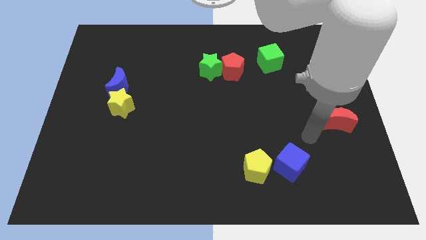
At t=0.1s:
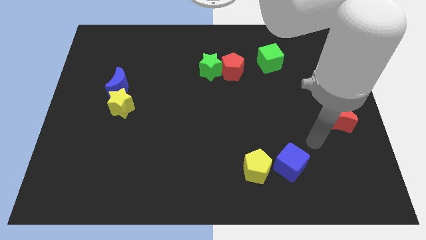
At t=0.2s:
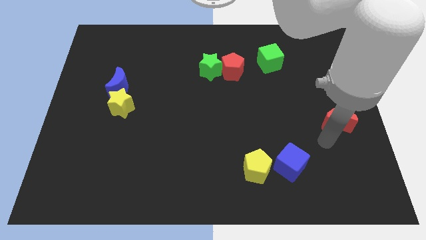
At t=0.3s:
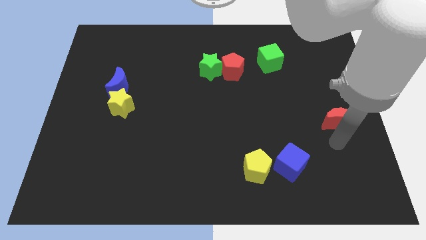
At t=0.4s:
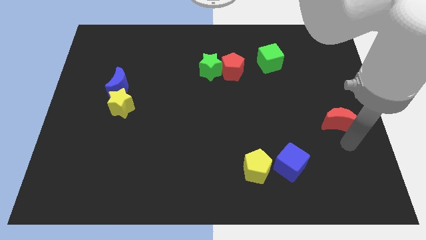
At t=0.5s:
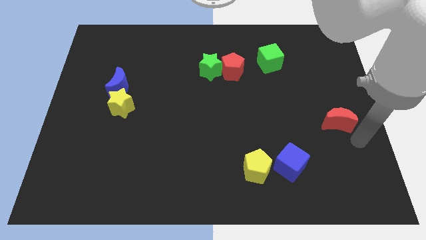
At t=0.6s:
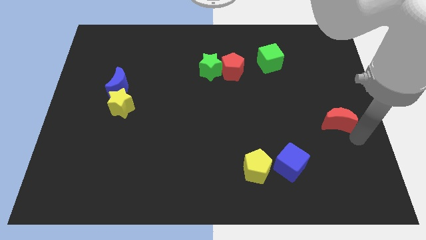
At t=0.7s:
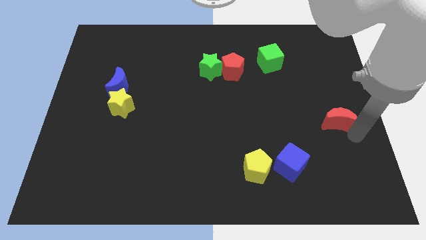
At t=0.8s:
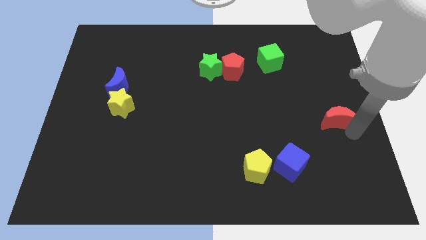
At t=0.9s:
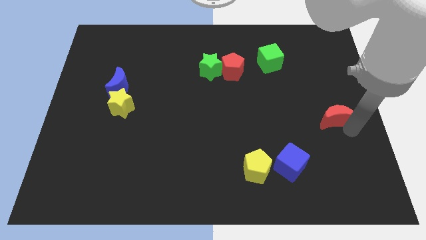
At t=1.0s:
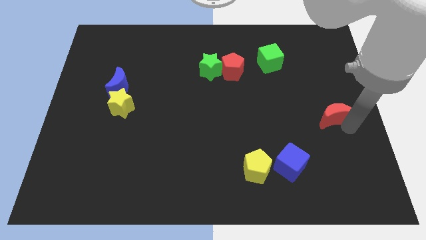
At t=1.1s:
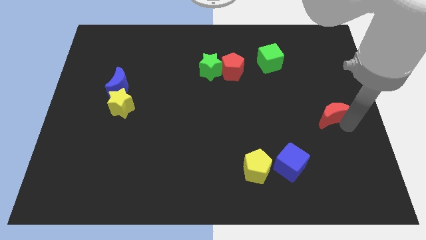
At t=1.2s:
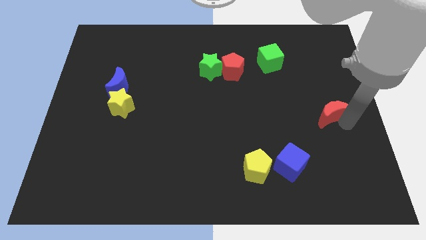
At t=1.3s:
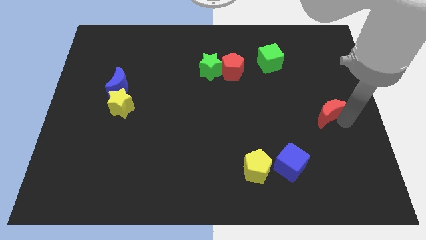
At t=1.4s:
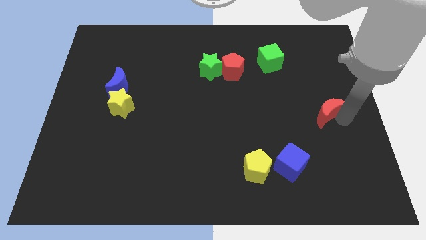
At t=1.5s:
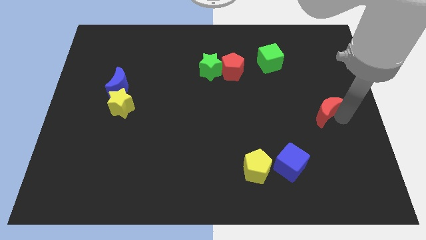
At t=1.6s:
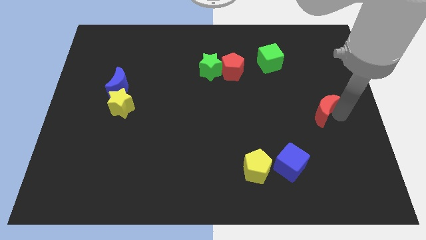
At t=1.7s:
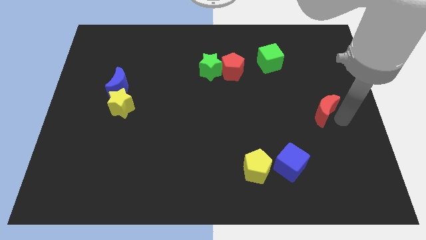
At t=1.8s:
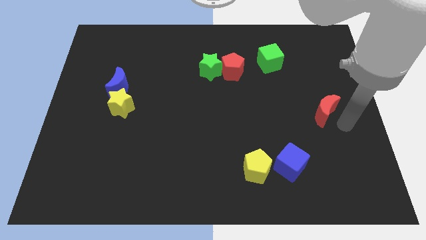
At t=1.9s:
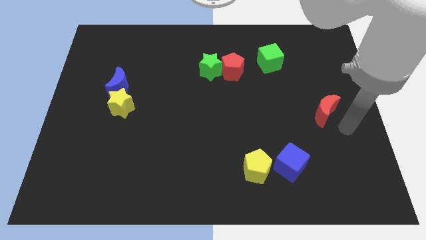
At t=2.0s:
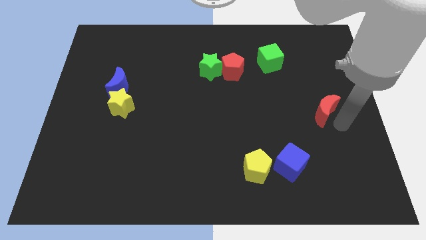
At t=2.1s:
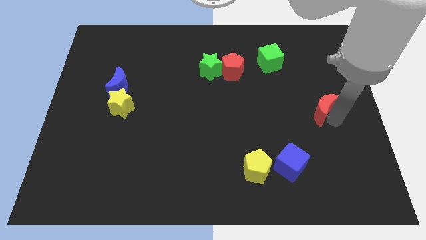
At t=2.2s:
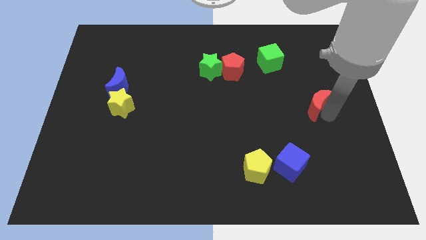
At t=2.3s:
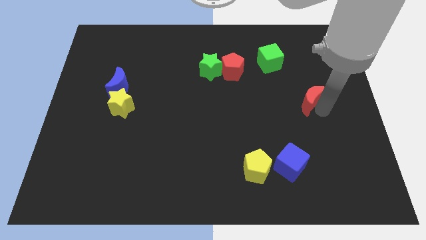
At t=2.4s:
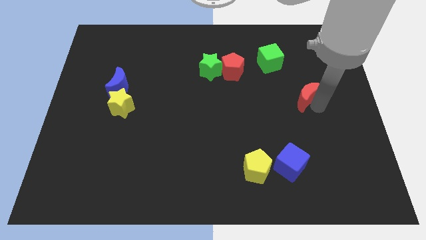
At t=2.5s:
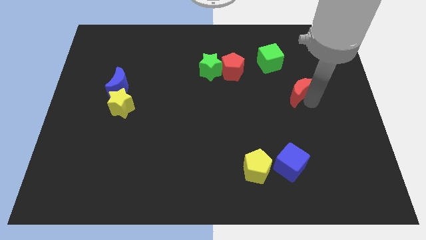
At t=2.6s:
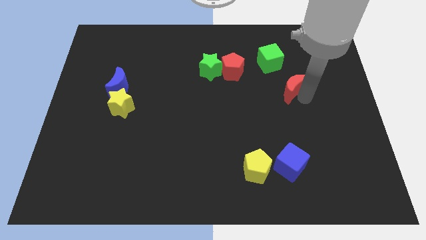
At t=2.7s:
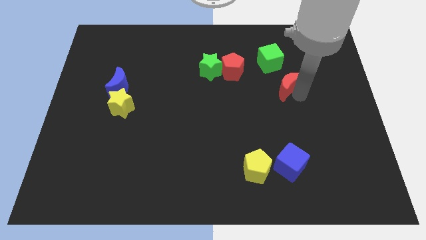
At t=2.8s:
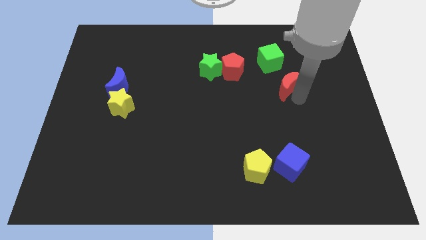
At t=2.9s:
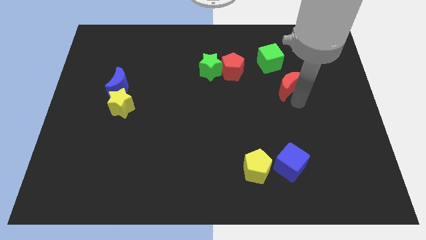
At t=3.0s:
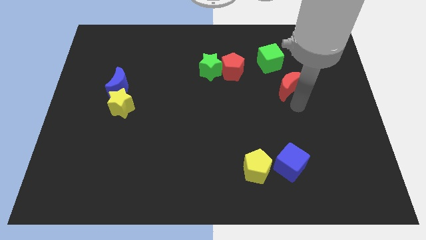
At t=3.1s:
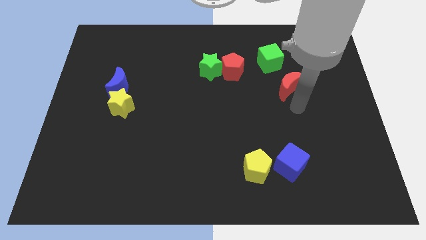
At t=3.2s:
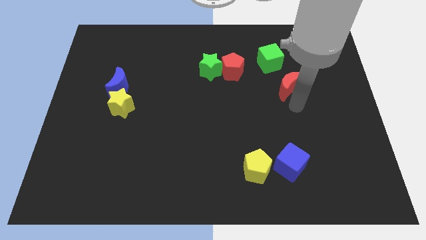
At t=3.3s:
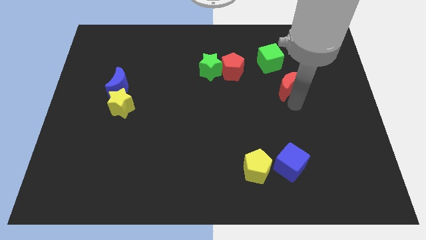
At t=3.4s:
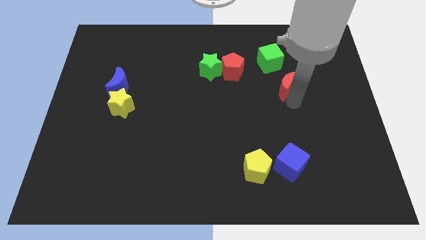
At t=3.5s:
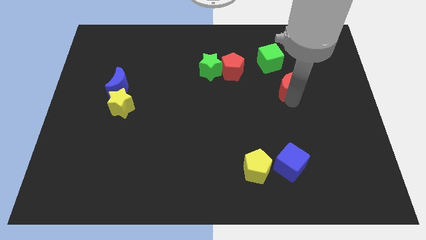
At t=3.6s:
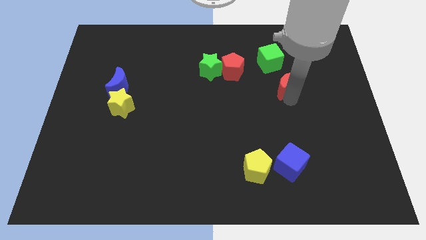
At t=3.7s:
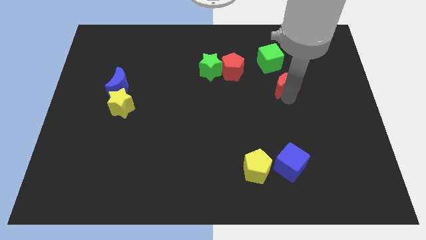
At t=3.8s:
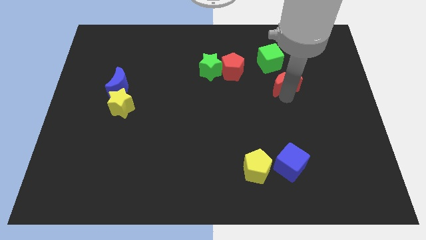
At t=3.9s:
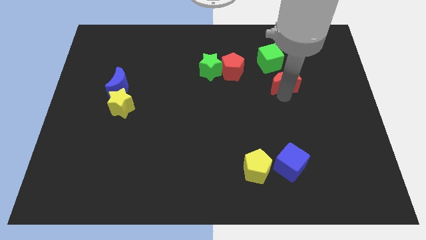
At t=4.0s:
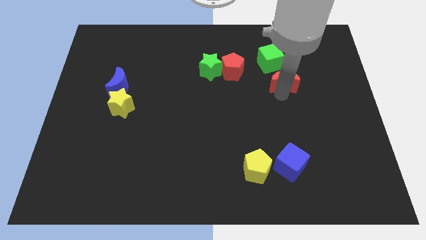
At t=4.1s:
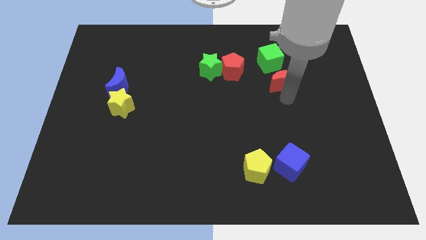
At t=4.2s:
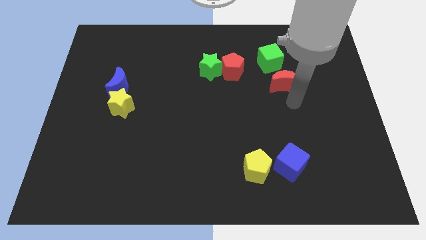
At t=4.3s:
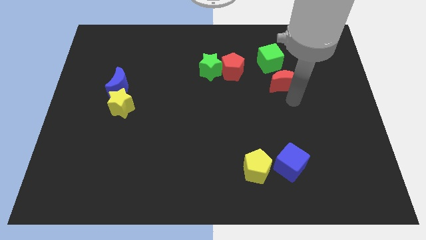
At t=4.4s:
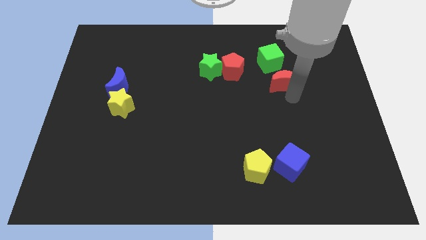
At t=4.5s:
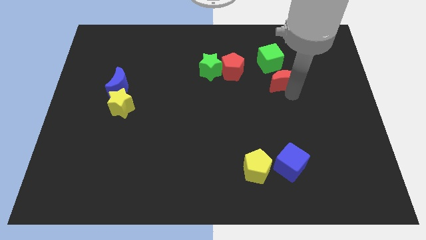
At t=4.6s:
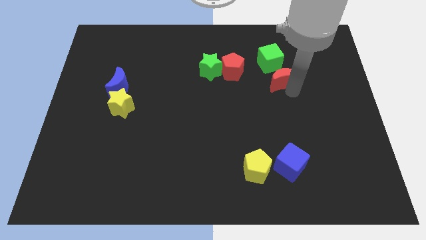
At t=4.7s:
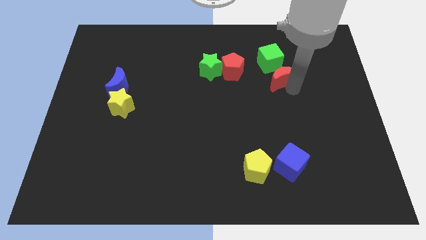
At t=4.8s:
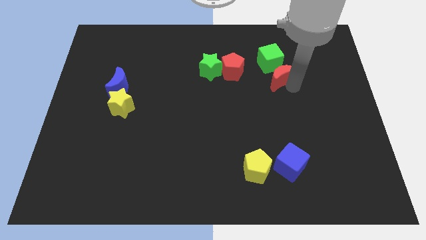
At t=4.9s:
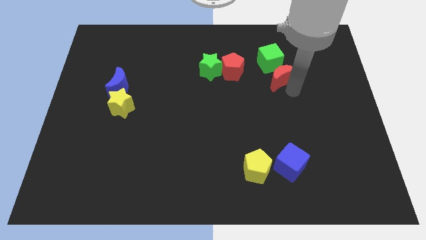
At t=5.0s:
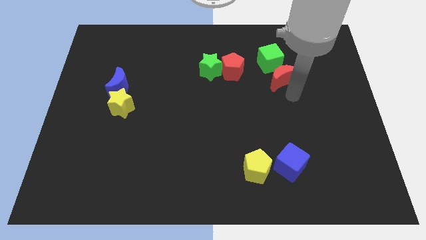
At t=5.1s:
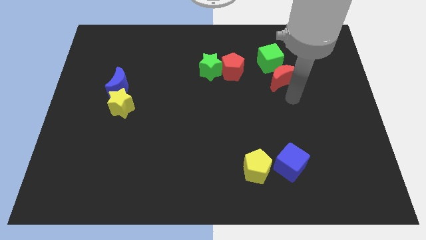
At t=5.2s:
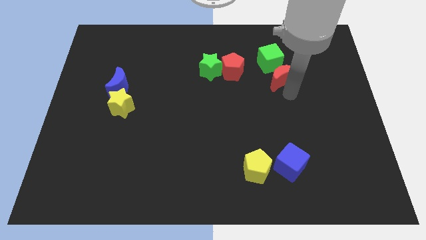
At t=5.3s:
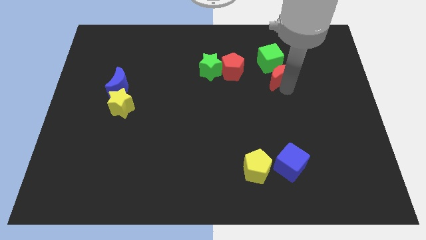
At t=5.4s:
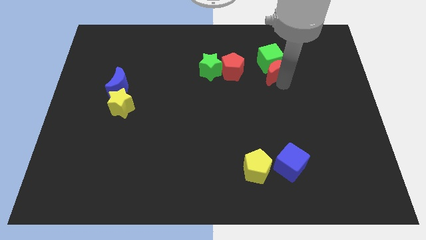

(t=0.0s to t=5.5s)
move the red moon close to the green cube

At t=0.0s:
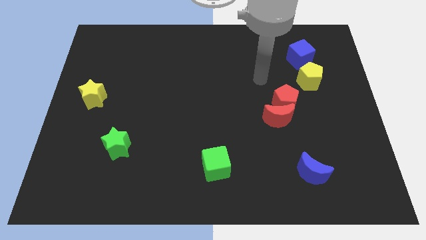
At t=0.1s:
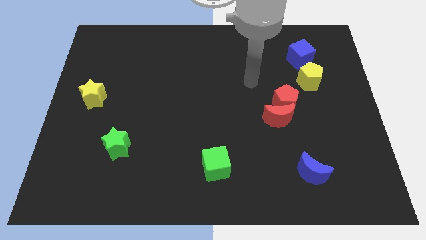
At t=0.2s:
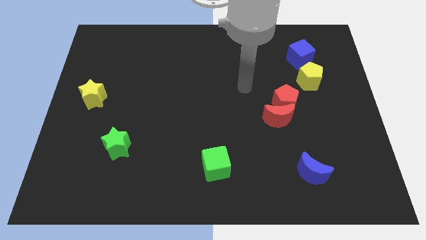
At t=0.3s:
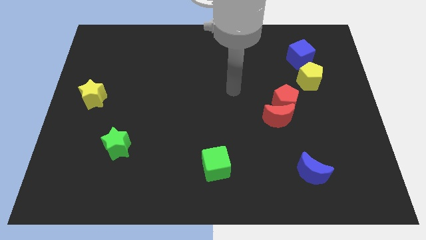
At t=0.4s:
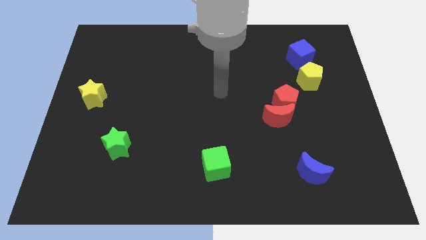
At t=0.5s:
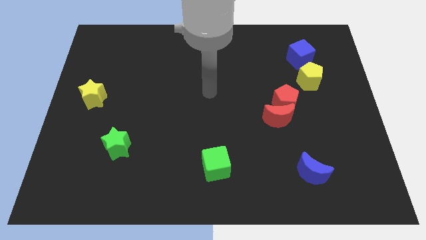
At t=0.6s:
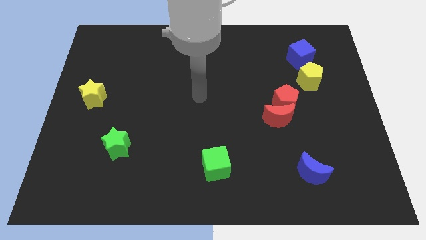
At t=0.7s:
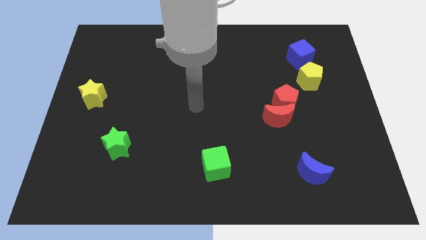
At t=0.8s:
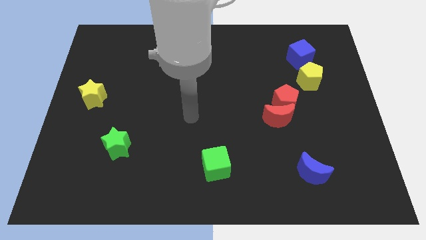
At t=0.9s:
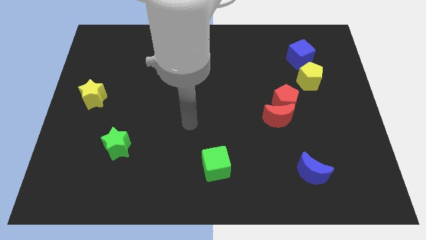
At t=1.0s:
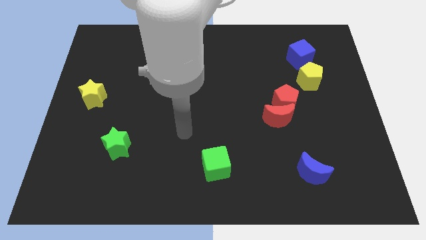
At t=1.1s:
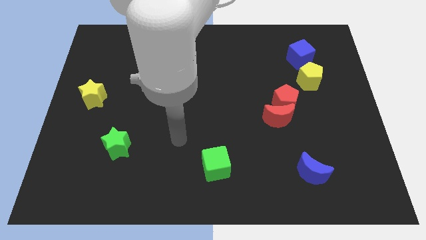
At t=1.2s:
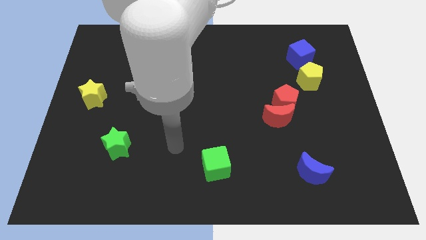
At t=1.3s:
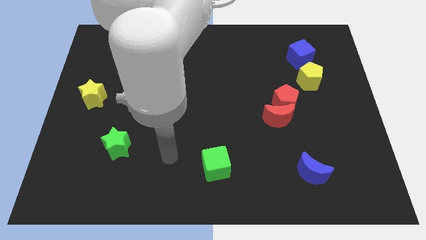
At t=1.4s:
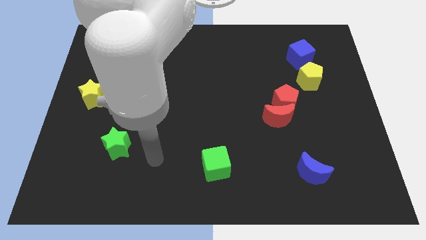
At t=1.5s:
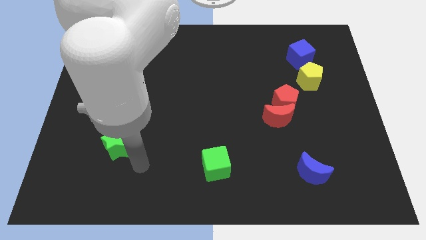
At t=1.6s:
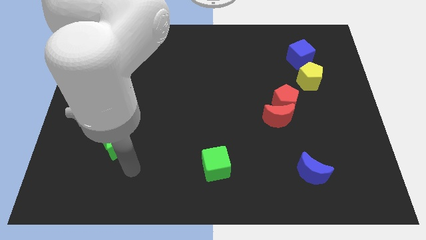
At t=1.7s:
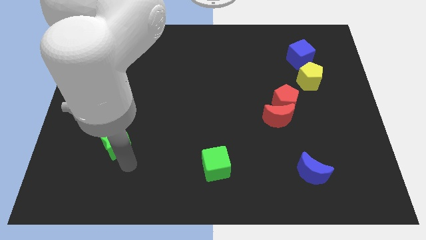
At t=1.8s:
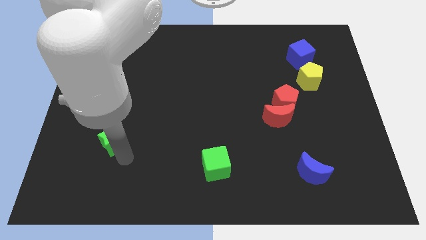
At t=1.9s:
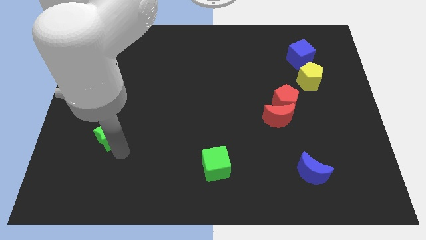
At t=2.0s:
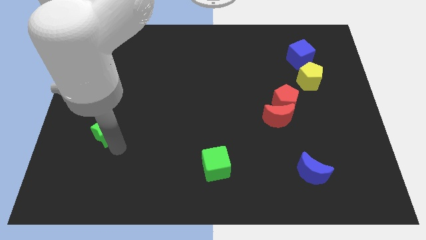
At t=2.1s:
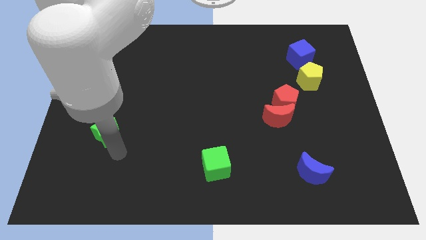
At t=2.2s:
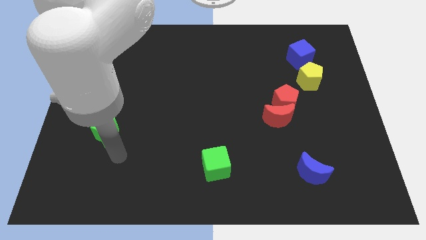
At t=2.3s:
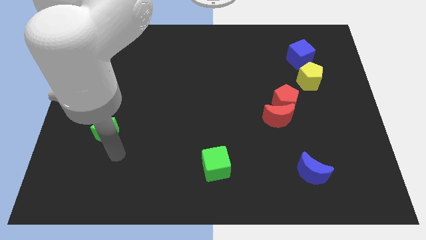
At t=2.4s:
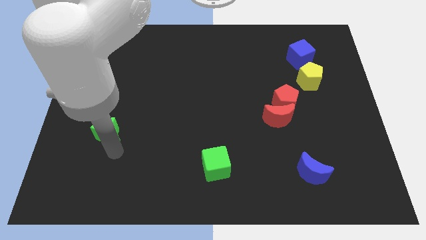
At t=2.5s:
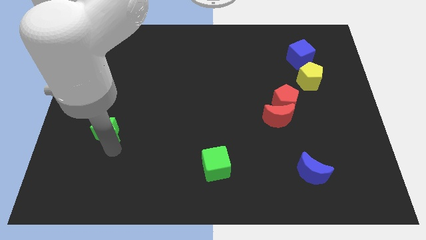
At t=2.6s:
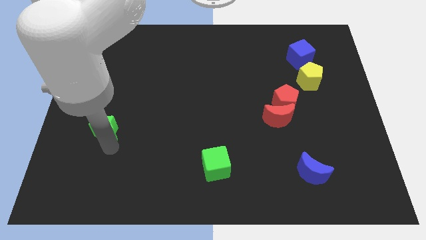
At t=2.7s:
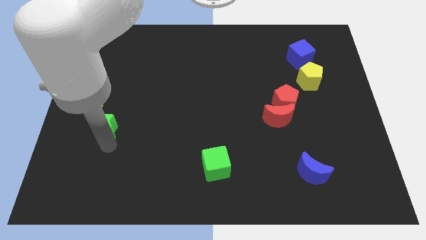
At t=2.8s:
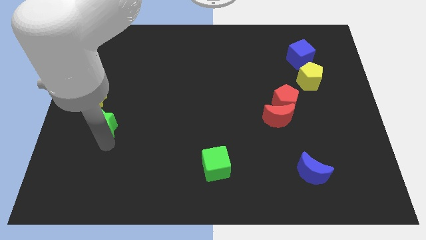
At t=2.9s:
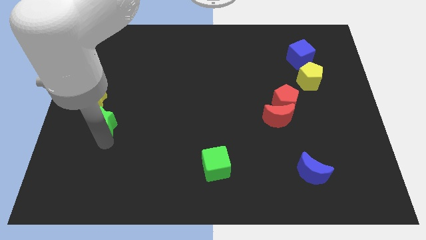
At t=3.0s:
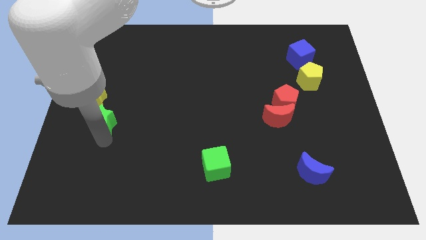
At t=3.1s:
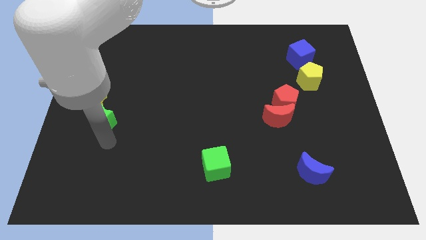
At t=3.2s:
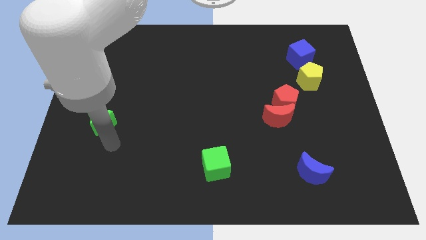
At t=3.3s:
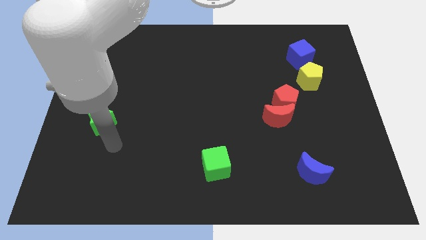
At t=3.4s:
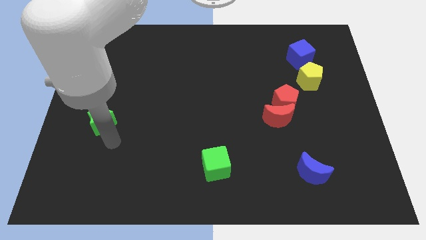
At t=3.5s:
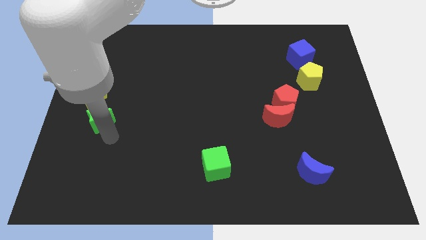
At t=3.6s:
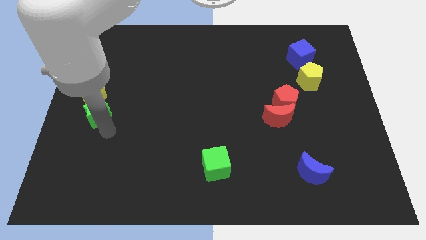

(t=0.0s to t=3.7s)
push the green star to the yellow star
